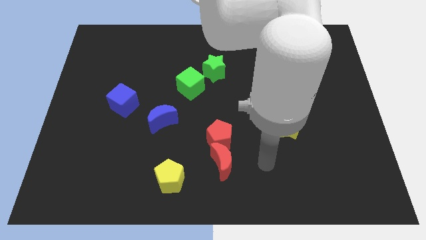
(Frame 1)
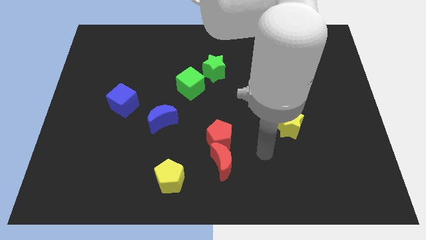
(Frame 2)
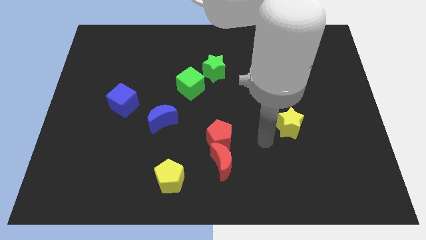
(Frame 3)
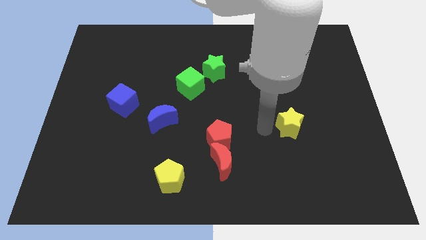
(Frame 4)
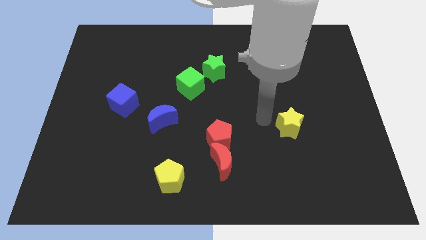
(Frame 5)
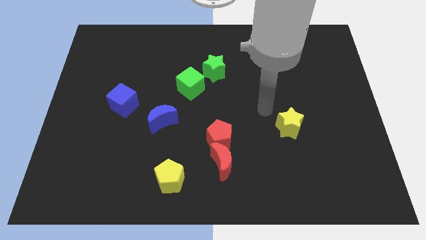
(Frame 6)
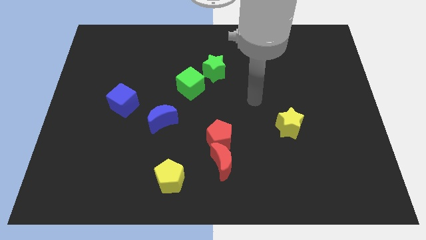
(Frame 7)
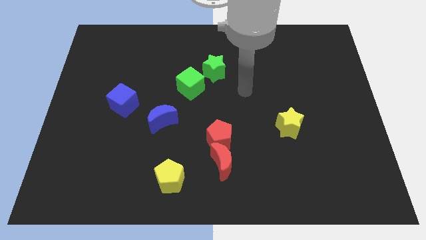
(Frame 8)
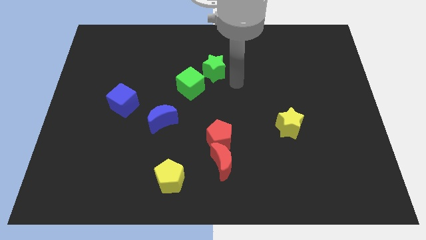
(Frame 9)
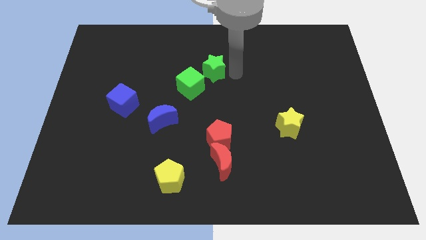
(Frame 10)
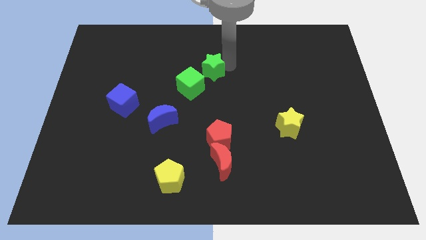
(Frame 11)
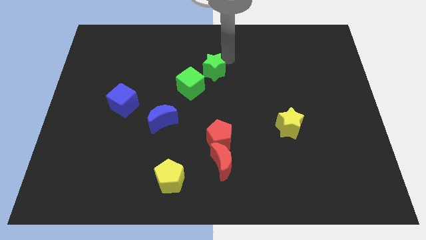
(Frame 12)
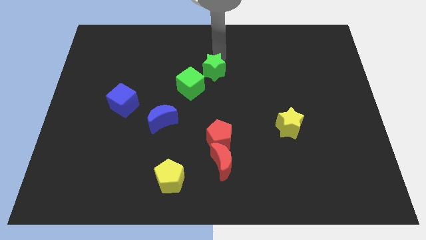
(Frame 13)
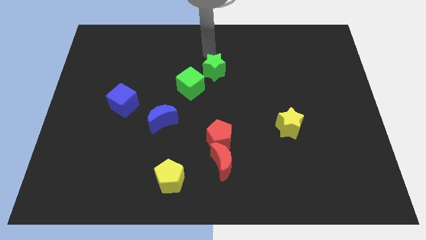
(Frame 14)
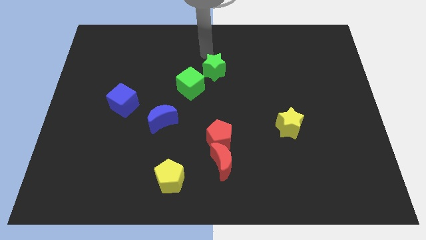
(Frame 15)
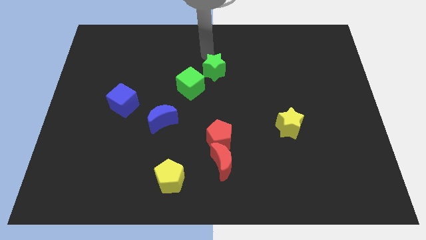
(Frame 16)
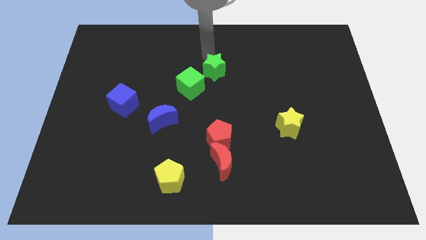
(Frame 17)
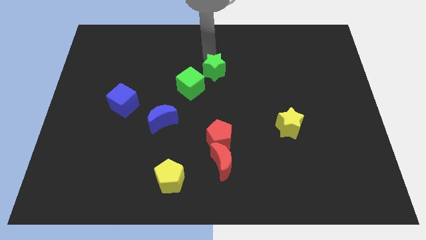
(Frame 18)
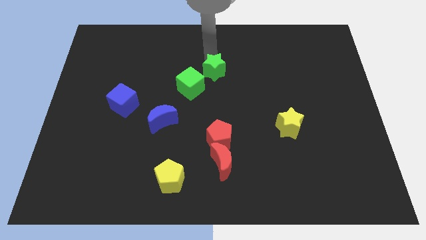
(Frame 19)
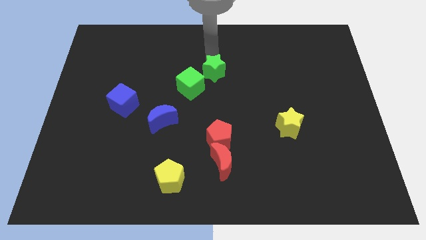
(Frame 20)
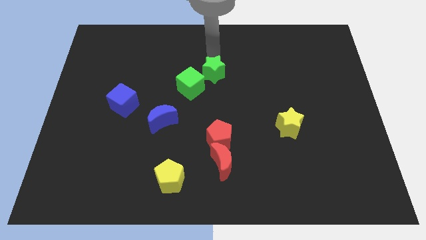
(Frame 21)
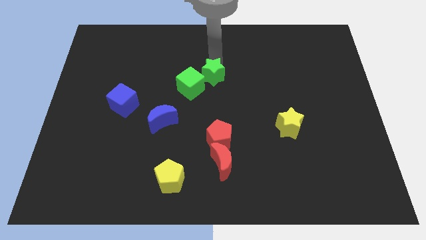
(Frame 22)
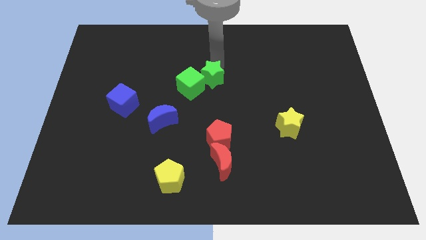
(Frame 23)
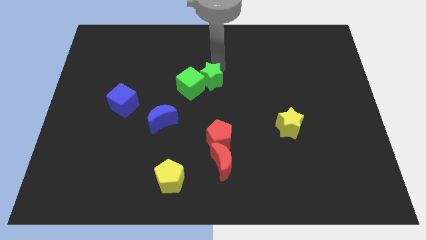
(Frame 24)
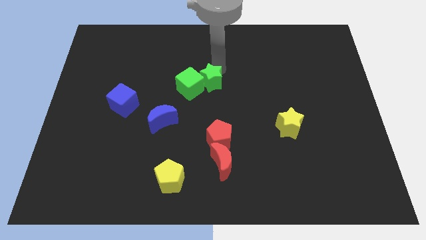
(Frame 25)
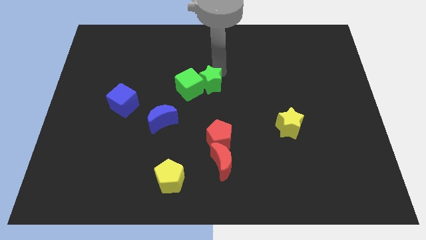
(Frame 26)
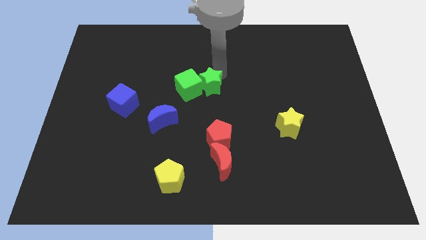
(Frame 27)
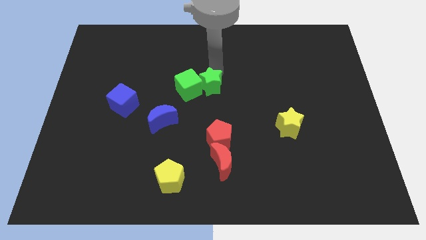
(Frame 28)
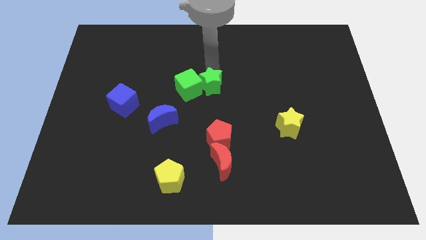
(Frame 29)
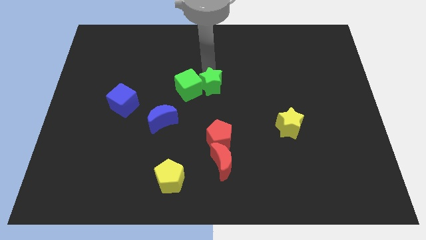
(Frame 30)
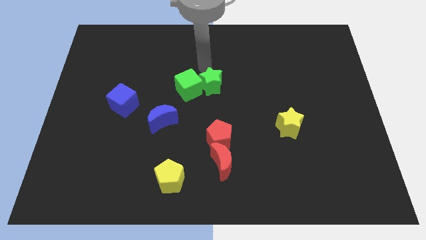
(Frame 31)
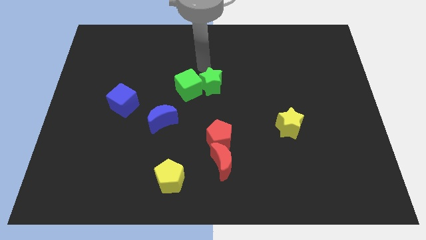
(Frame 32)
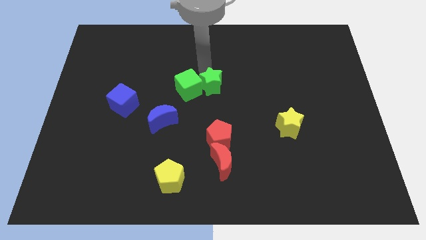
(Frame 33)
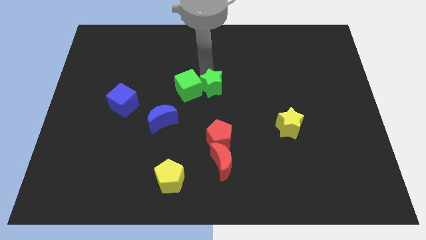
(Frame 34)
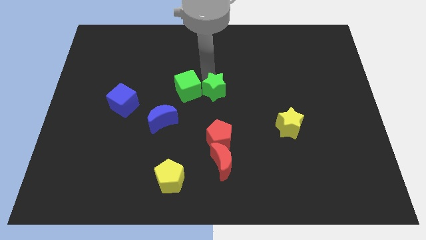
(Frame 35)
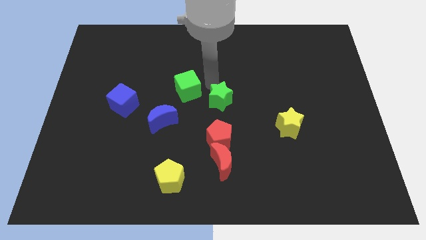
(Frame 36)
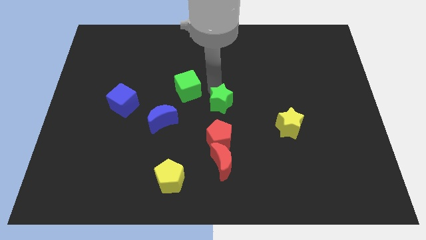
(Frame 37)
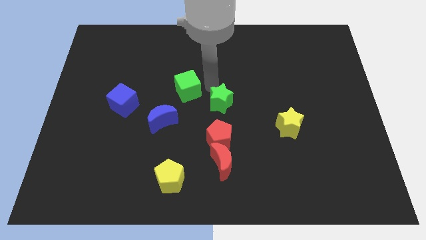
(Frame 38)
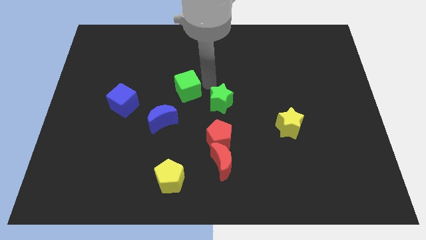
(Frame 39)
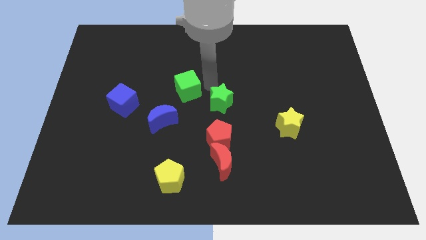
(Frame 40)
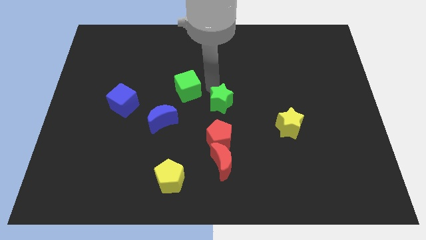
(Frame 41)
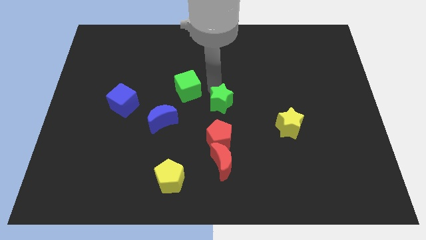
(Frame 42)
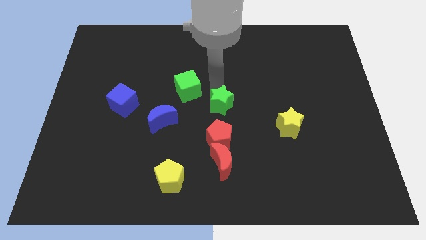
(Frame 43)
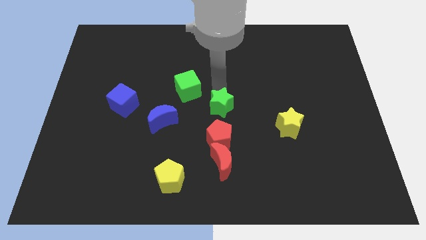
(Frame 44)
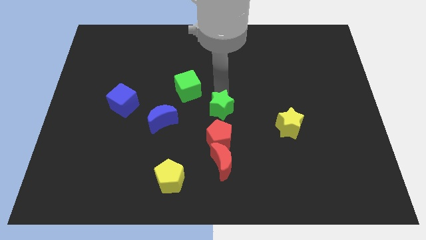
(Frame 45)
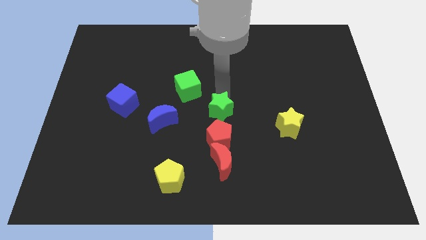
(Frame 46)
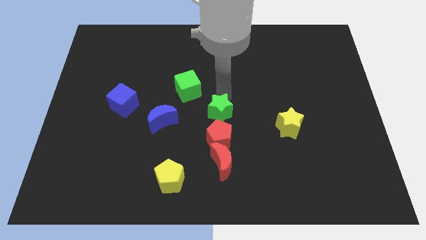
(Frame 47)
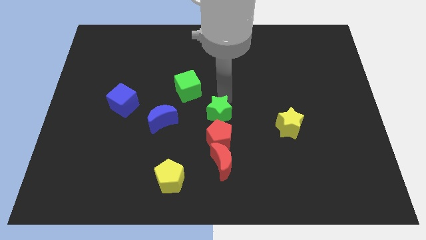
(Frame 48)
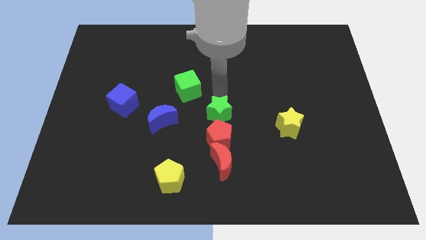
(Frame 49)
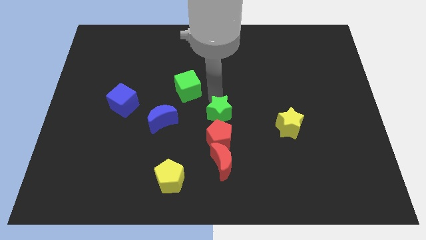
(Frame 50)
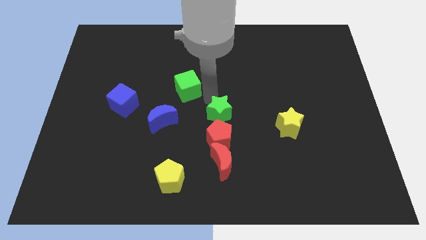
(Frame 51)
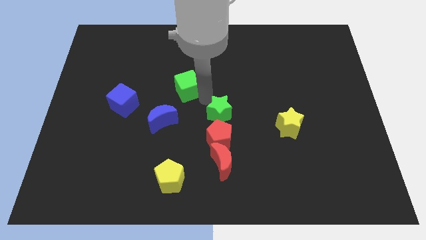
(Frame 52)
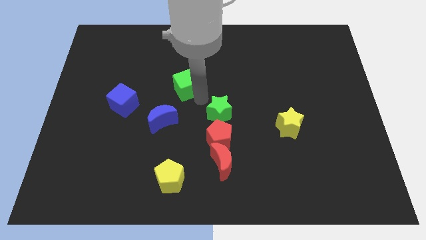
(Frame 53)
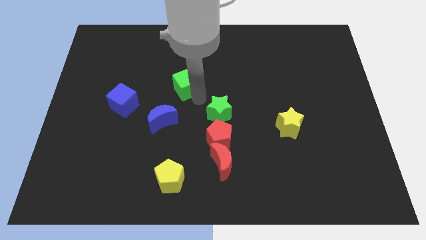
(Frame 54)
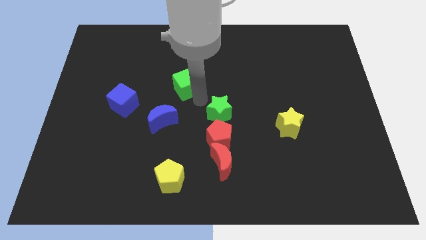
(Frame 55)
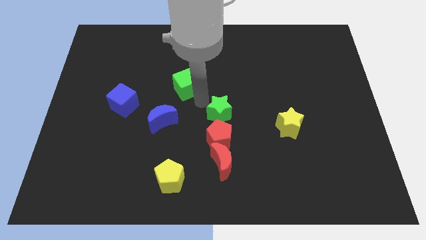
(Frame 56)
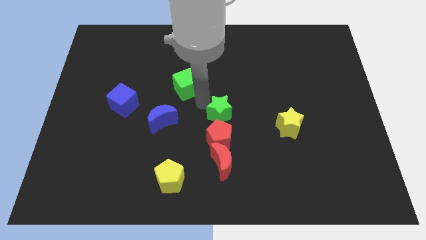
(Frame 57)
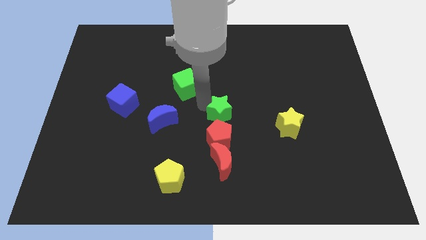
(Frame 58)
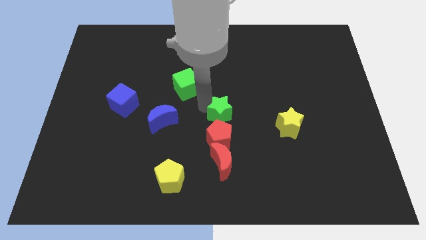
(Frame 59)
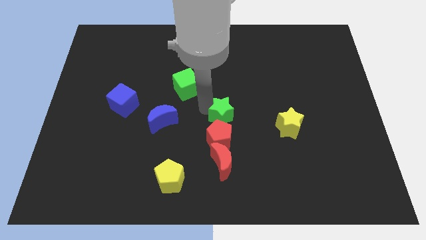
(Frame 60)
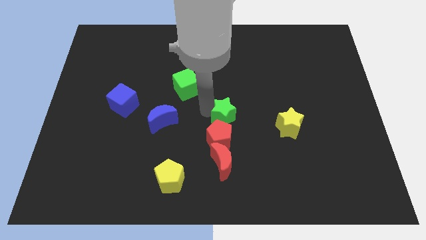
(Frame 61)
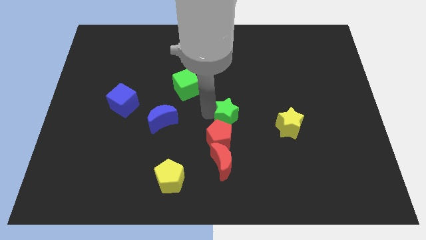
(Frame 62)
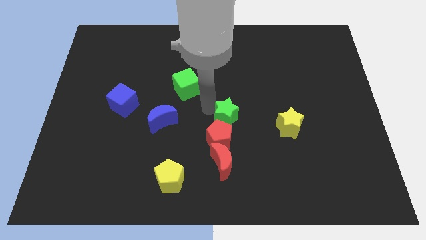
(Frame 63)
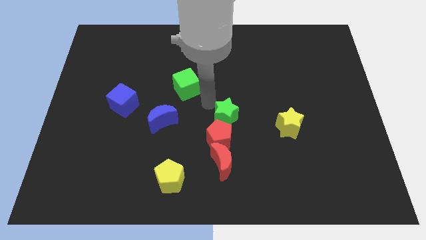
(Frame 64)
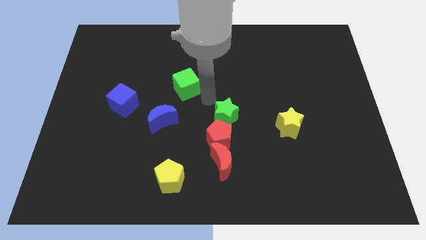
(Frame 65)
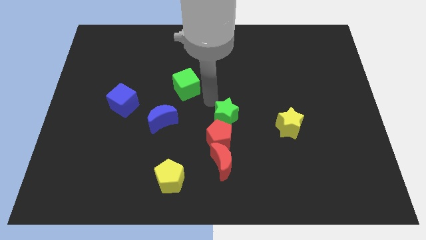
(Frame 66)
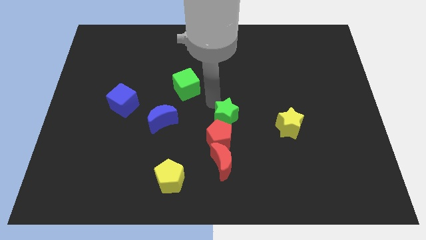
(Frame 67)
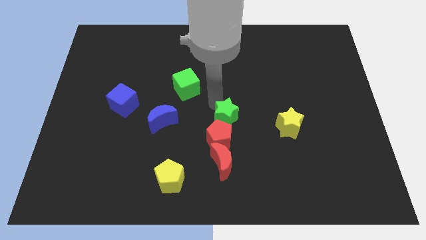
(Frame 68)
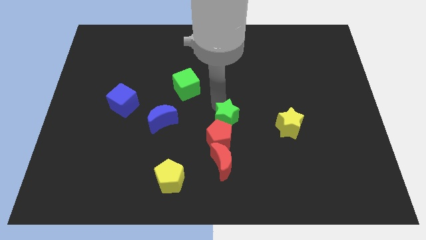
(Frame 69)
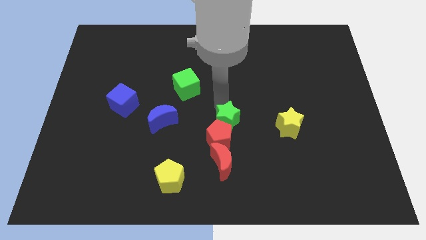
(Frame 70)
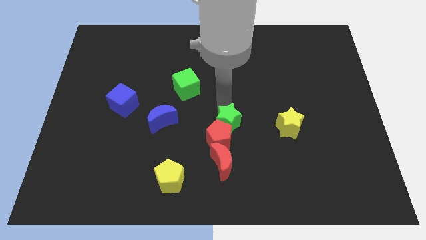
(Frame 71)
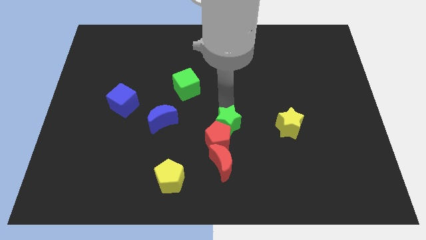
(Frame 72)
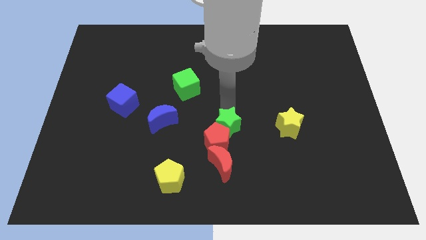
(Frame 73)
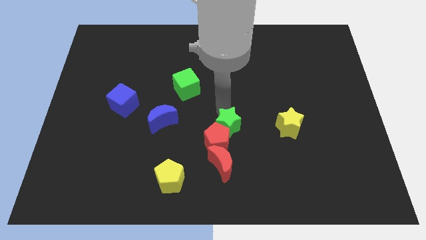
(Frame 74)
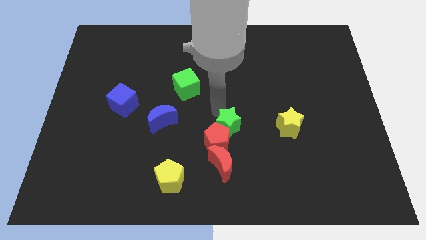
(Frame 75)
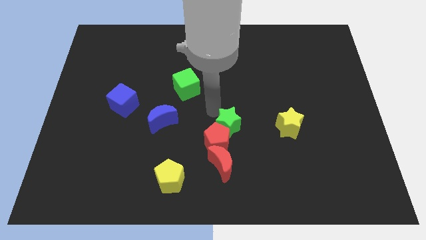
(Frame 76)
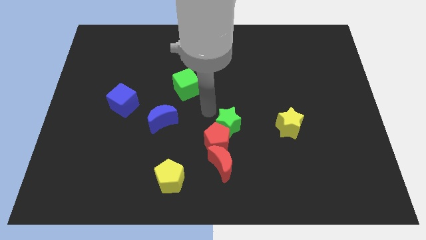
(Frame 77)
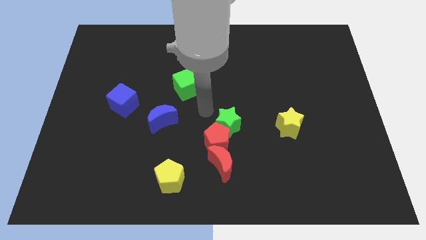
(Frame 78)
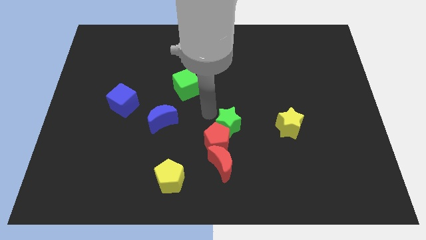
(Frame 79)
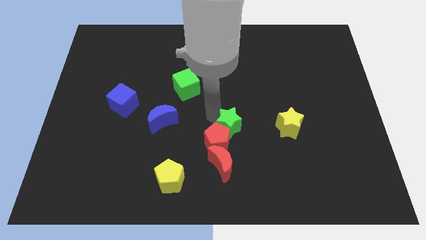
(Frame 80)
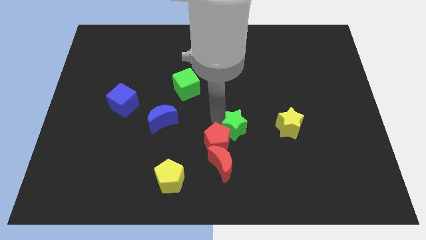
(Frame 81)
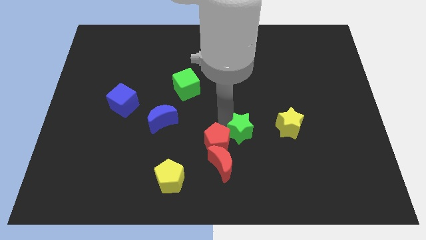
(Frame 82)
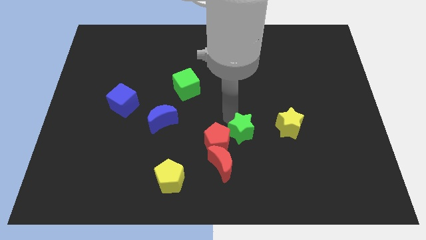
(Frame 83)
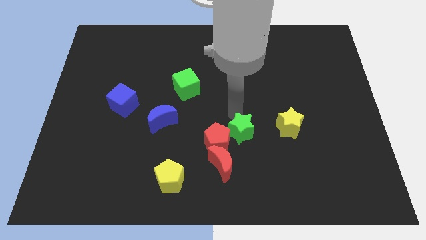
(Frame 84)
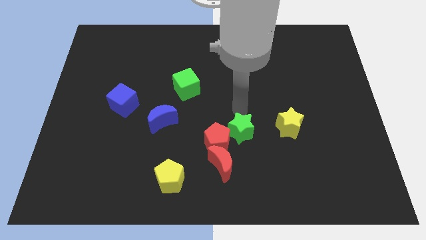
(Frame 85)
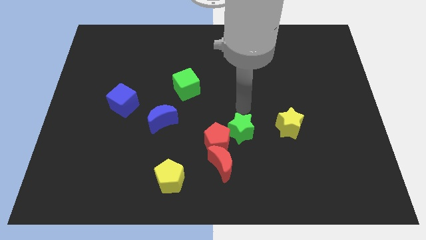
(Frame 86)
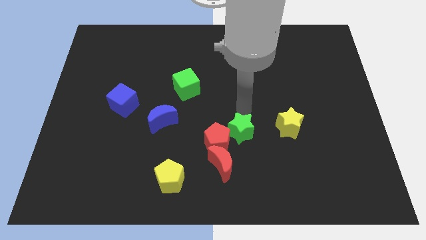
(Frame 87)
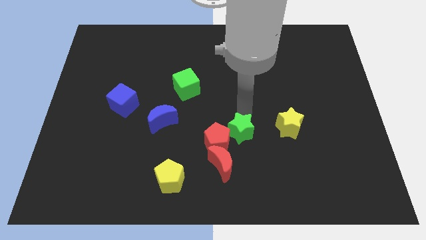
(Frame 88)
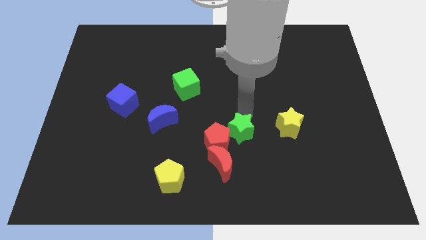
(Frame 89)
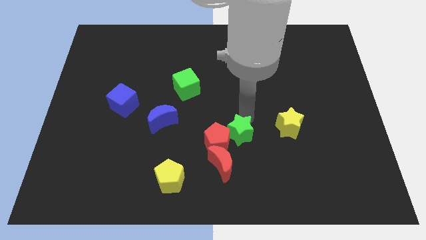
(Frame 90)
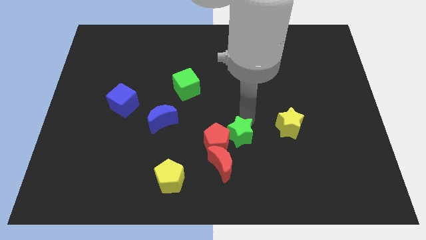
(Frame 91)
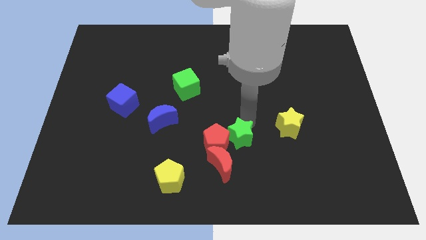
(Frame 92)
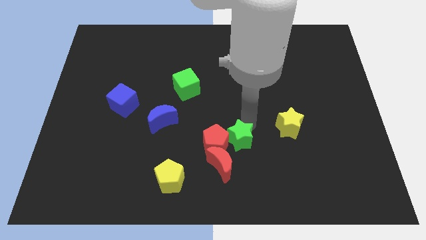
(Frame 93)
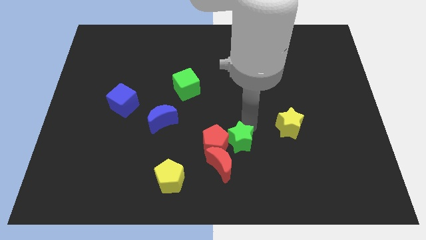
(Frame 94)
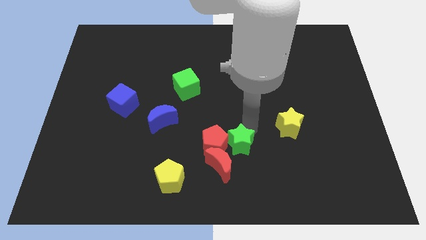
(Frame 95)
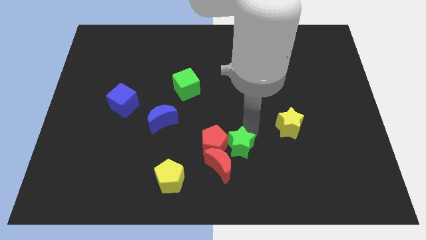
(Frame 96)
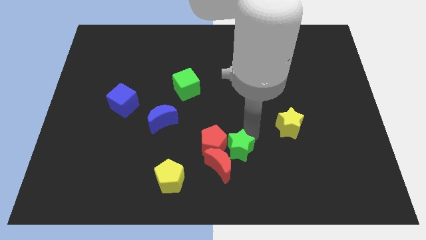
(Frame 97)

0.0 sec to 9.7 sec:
slide the green star towards the red moon
